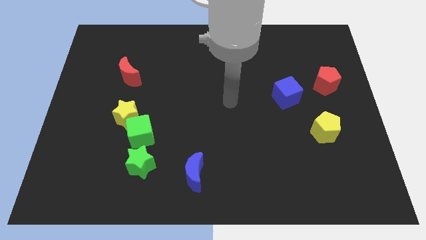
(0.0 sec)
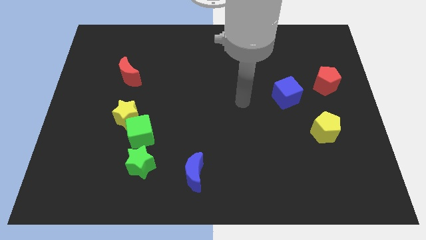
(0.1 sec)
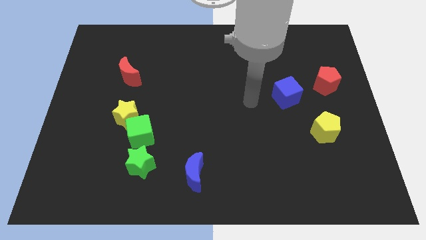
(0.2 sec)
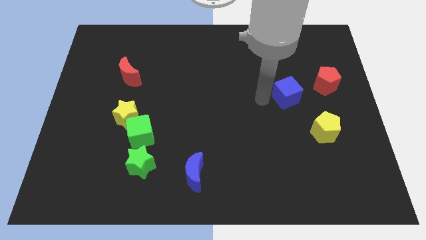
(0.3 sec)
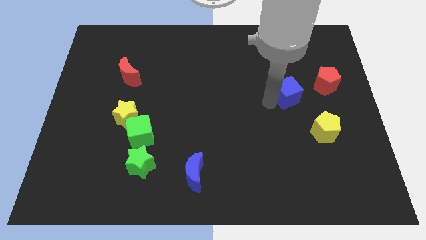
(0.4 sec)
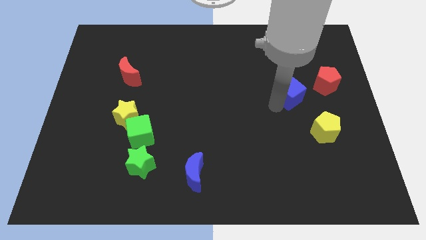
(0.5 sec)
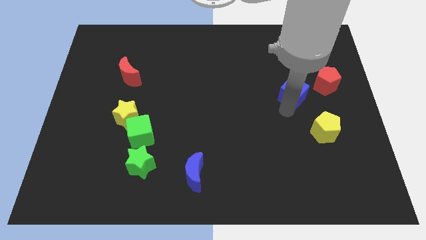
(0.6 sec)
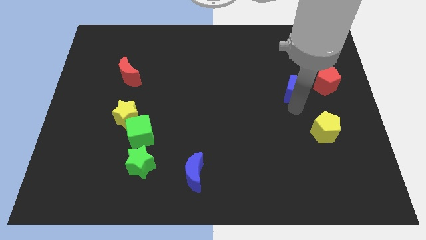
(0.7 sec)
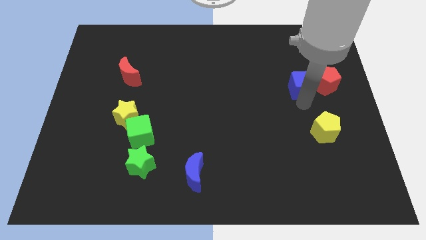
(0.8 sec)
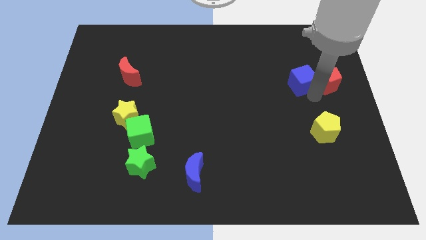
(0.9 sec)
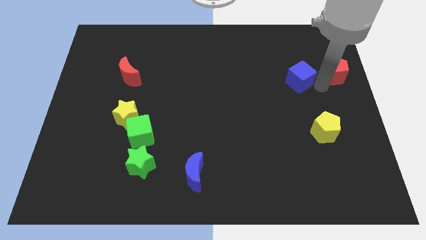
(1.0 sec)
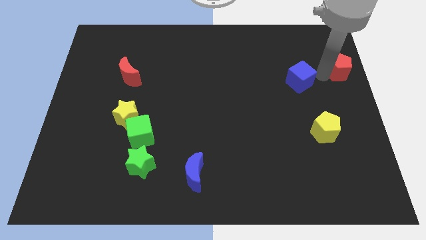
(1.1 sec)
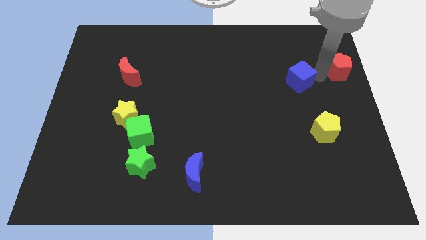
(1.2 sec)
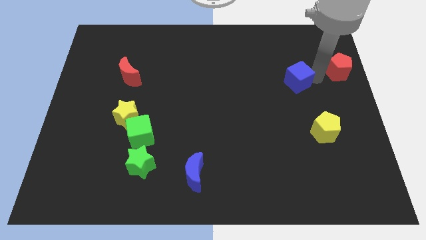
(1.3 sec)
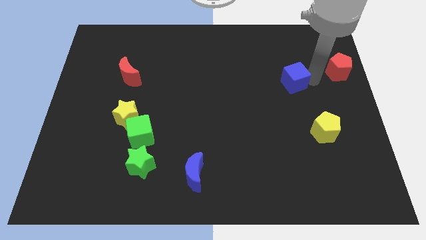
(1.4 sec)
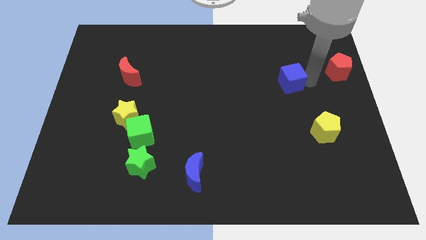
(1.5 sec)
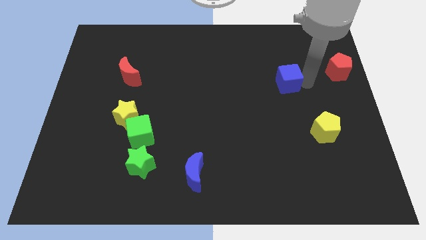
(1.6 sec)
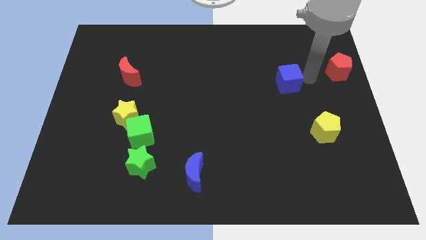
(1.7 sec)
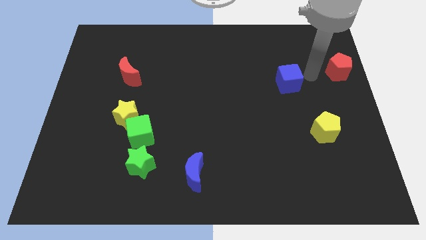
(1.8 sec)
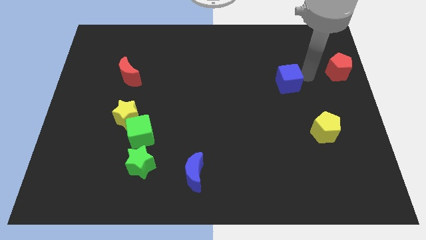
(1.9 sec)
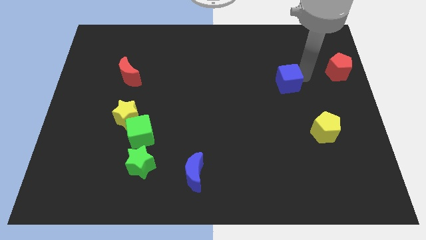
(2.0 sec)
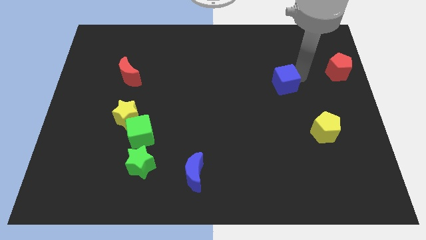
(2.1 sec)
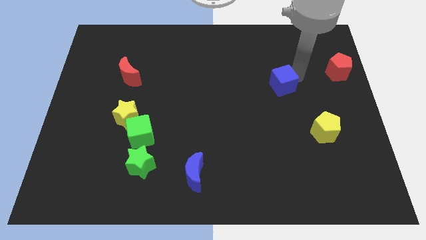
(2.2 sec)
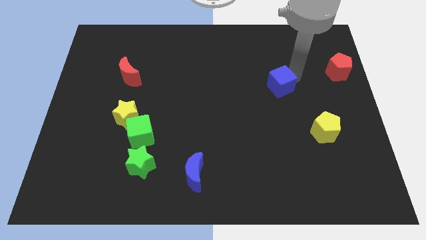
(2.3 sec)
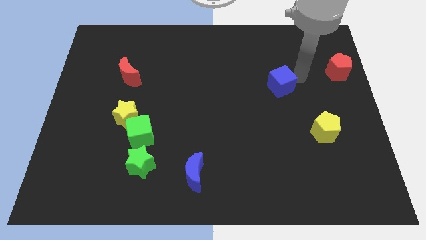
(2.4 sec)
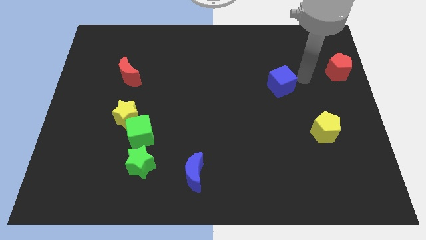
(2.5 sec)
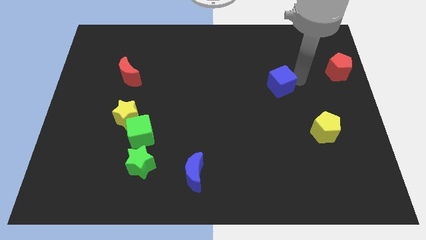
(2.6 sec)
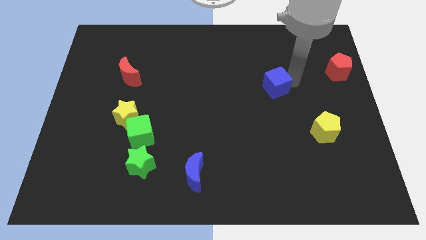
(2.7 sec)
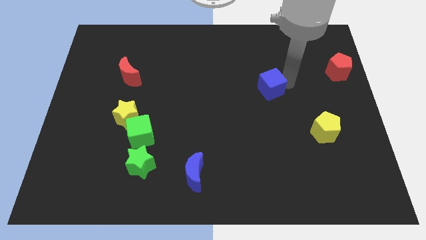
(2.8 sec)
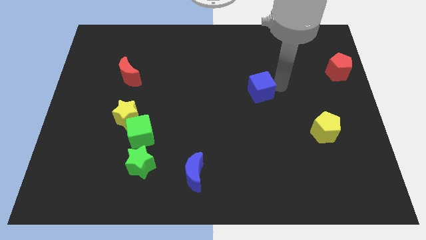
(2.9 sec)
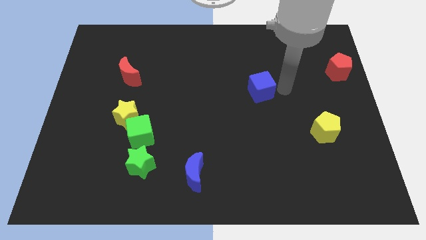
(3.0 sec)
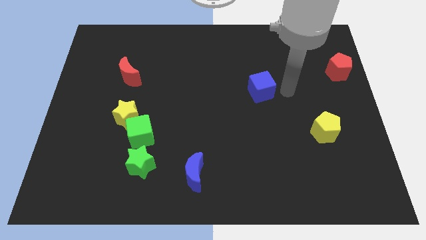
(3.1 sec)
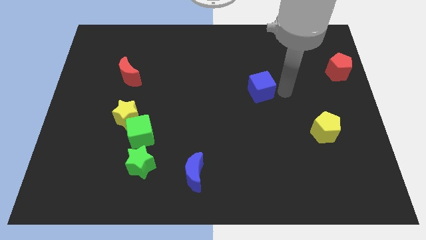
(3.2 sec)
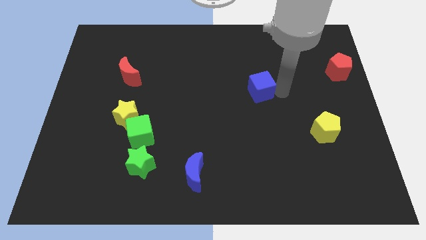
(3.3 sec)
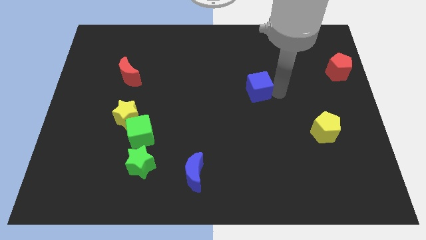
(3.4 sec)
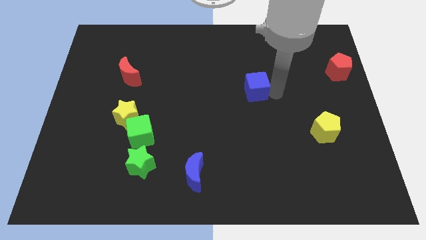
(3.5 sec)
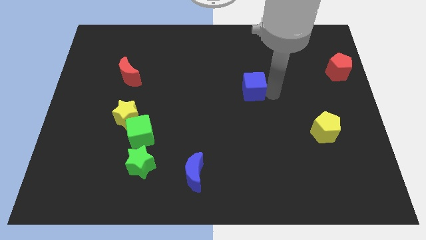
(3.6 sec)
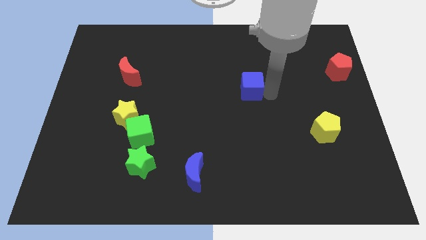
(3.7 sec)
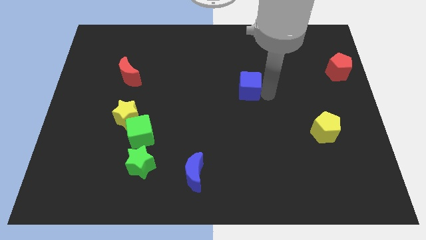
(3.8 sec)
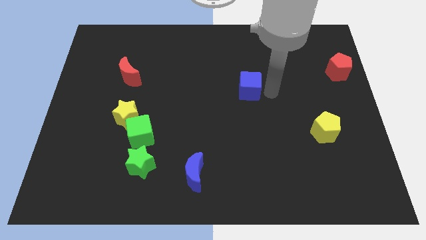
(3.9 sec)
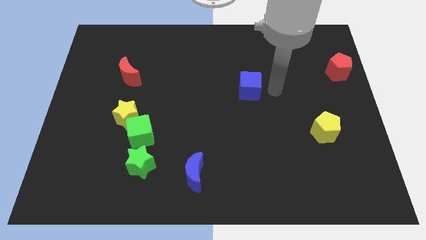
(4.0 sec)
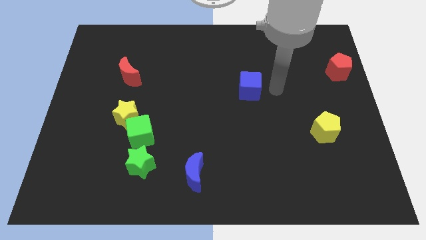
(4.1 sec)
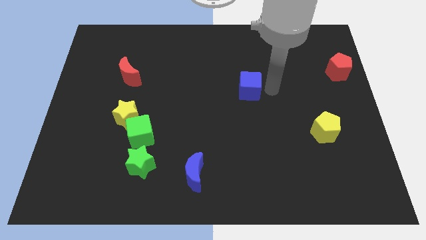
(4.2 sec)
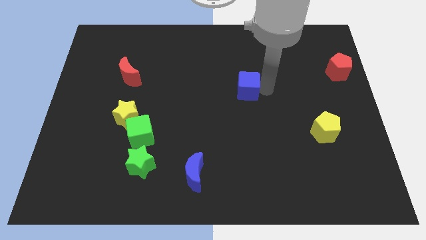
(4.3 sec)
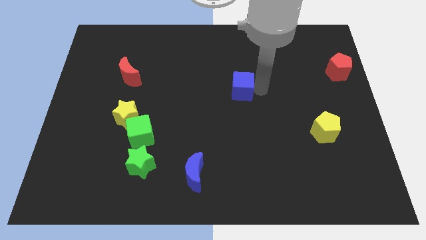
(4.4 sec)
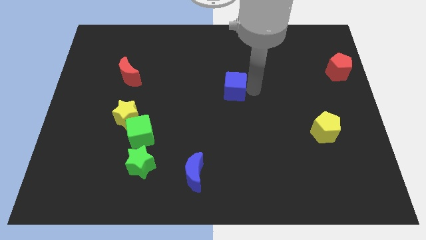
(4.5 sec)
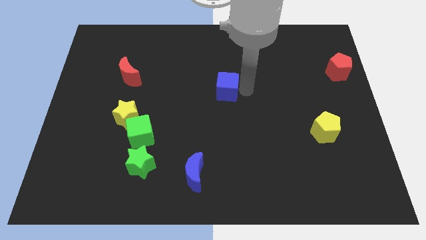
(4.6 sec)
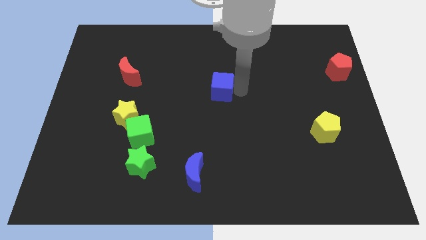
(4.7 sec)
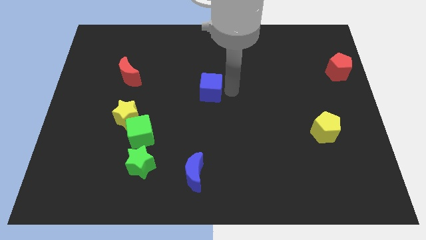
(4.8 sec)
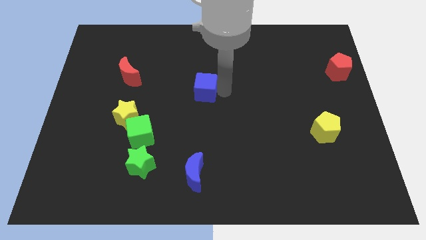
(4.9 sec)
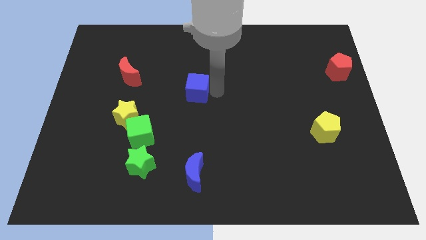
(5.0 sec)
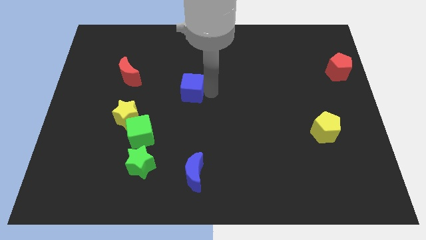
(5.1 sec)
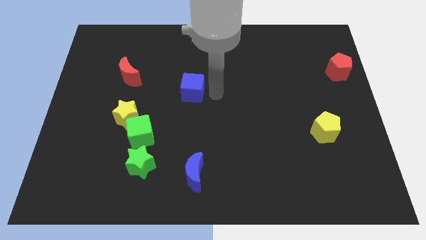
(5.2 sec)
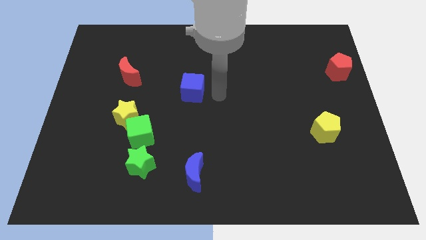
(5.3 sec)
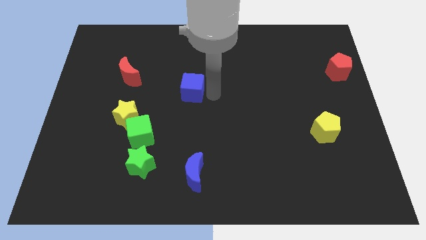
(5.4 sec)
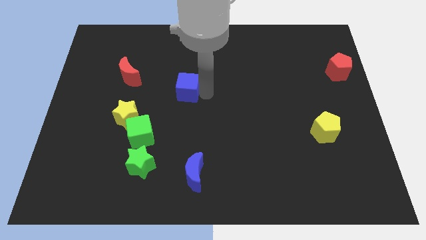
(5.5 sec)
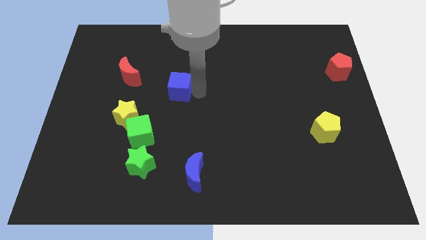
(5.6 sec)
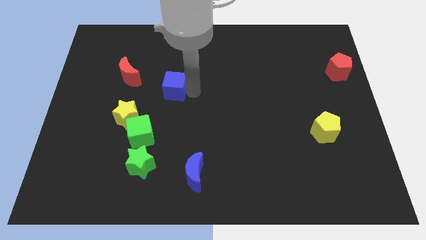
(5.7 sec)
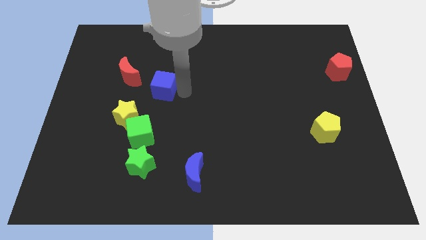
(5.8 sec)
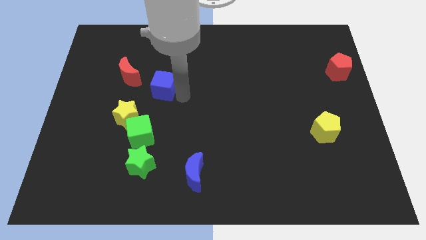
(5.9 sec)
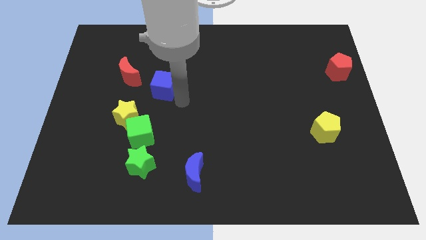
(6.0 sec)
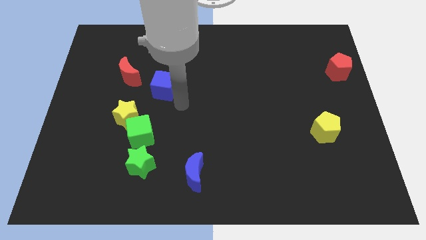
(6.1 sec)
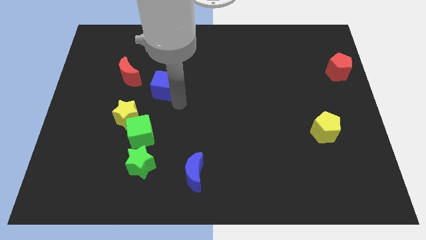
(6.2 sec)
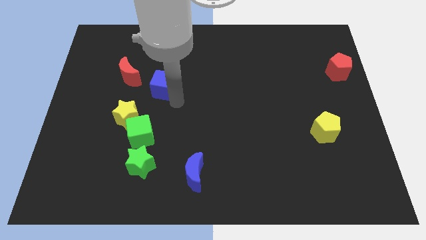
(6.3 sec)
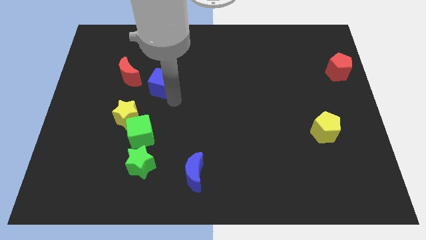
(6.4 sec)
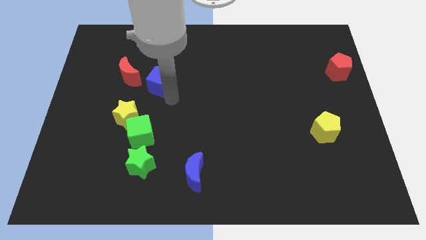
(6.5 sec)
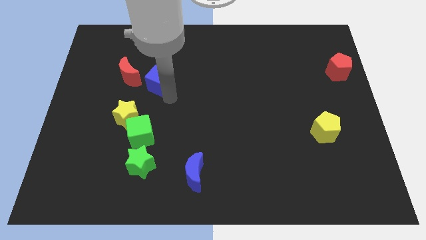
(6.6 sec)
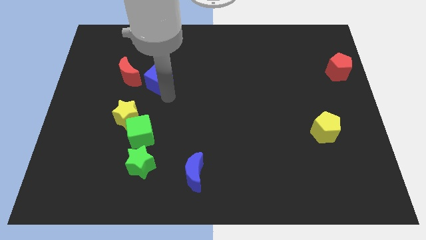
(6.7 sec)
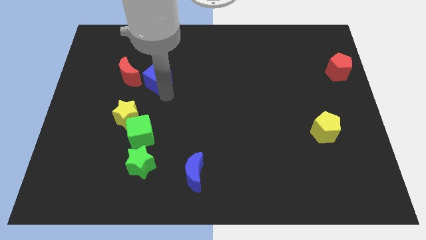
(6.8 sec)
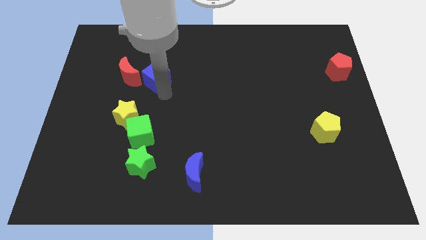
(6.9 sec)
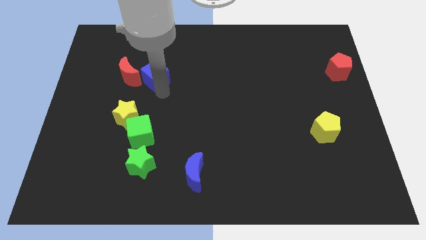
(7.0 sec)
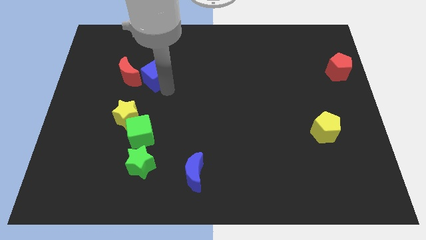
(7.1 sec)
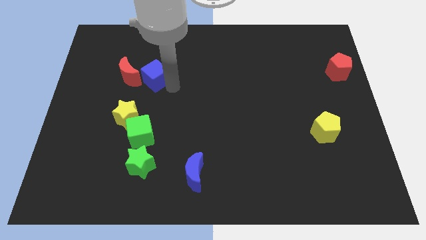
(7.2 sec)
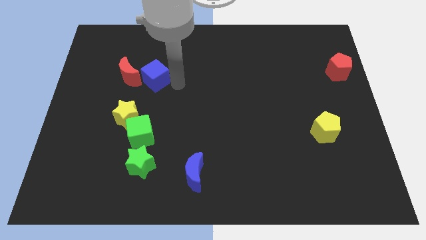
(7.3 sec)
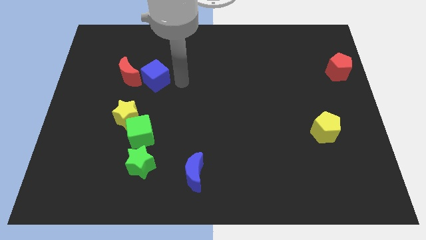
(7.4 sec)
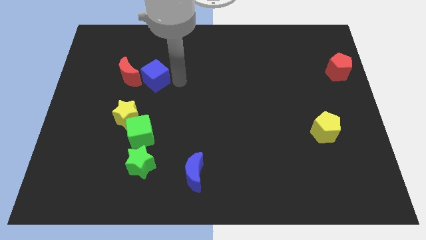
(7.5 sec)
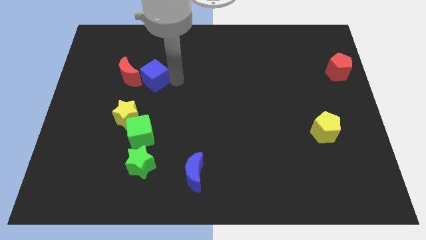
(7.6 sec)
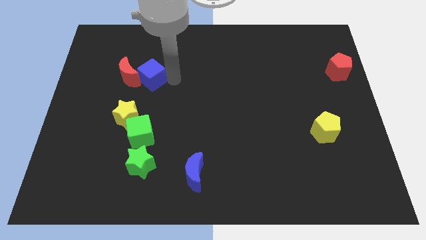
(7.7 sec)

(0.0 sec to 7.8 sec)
slide the blue cube next to the red moon
